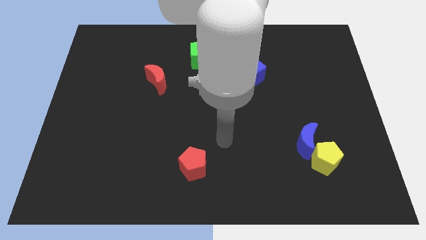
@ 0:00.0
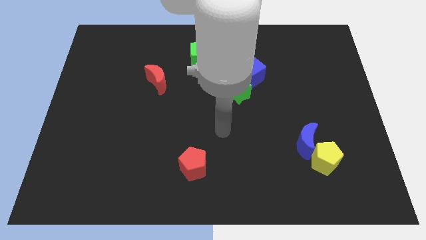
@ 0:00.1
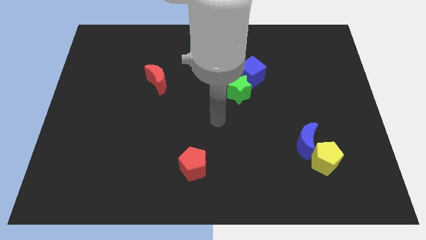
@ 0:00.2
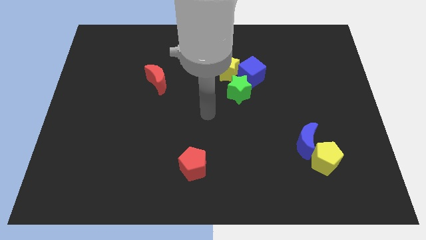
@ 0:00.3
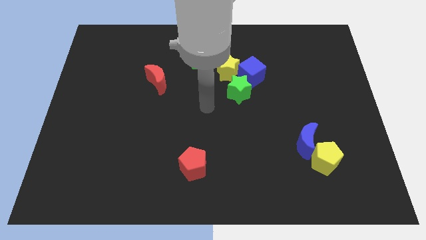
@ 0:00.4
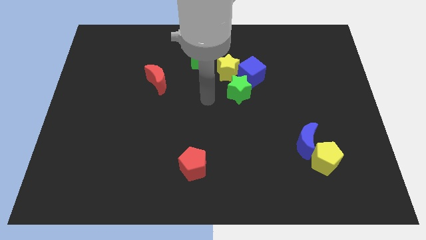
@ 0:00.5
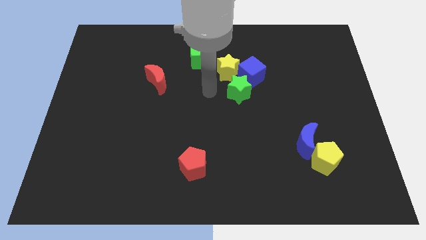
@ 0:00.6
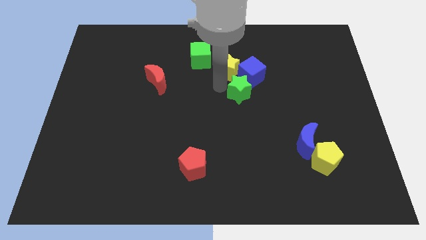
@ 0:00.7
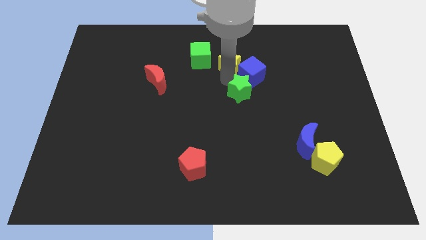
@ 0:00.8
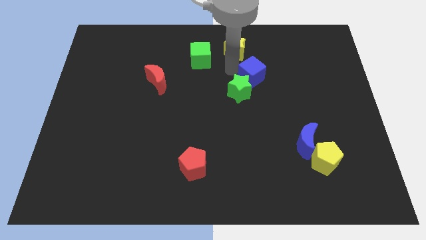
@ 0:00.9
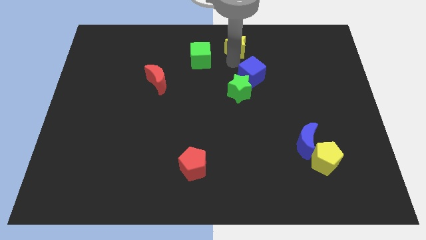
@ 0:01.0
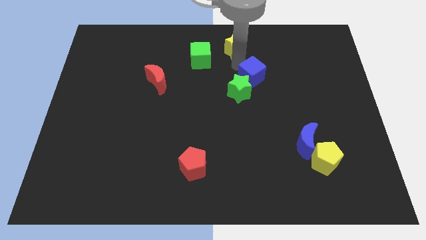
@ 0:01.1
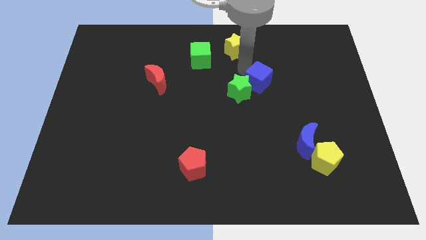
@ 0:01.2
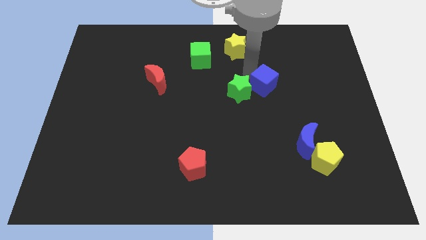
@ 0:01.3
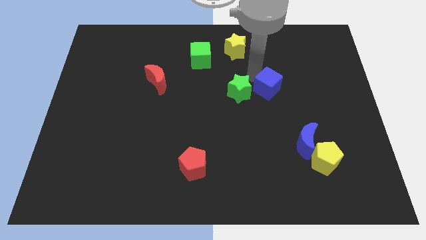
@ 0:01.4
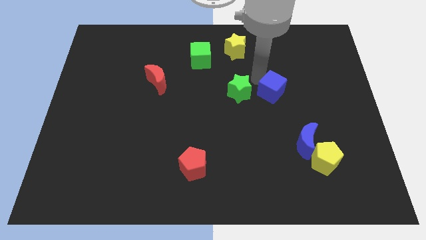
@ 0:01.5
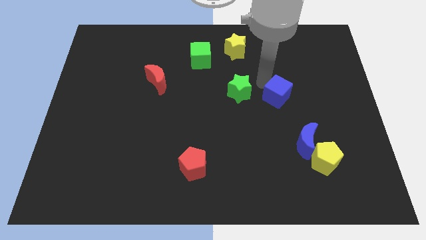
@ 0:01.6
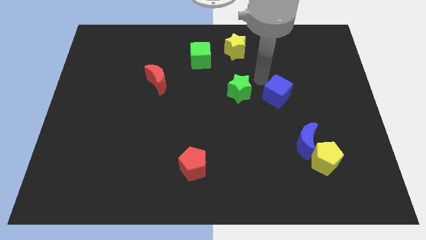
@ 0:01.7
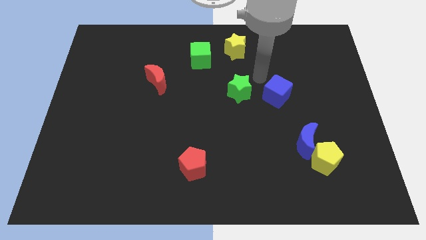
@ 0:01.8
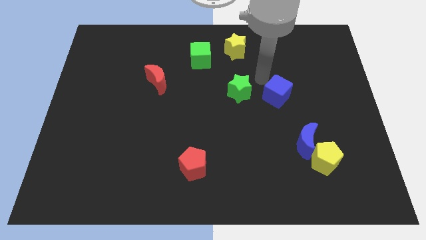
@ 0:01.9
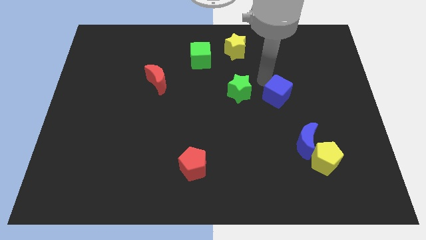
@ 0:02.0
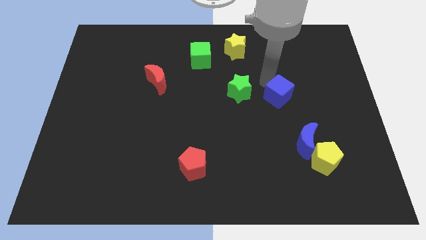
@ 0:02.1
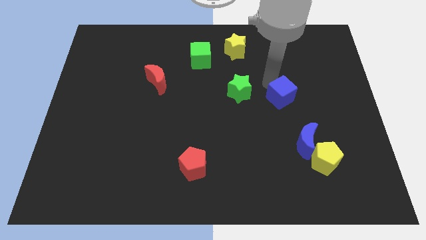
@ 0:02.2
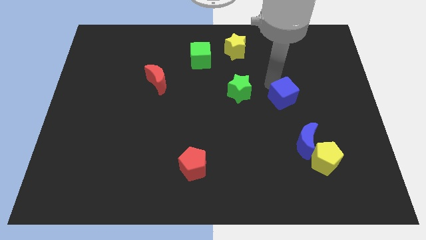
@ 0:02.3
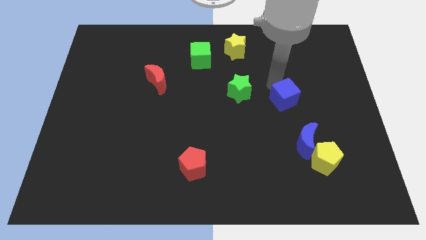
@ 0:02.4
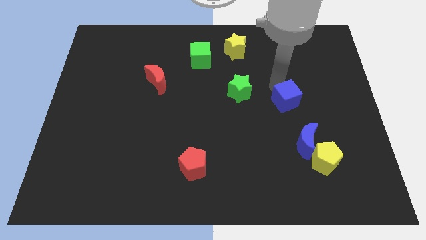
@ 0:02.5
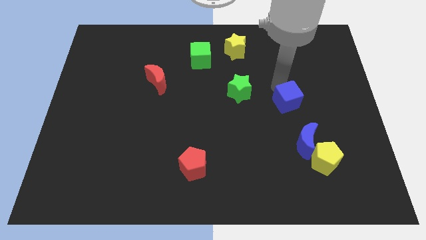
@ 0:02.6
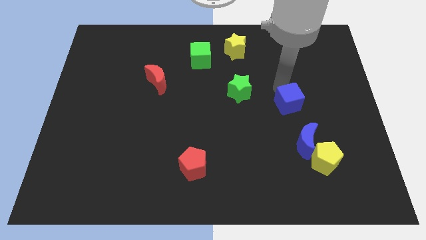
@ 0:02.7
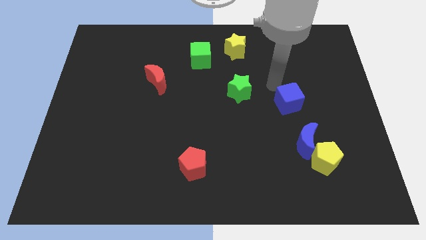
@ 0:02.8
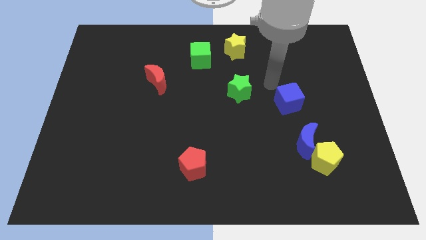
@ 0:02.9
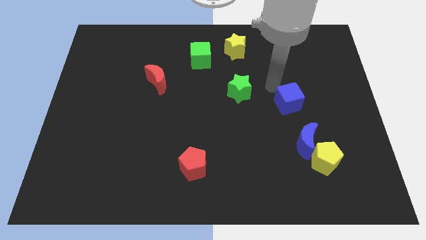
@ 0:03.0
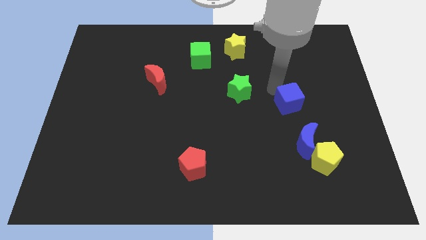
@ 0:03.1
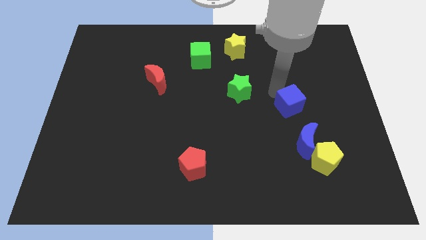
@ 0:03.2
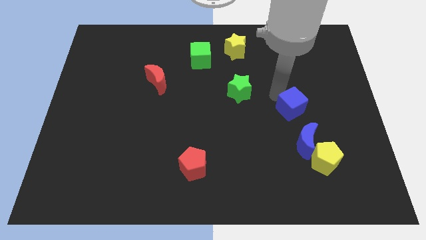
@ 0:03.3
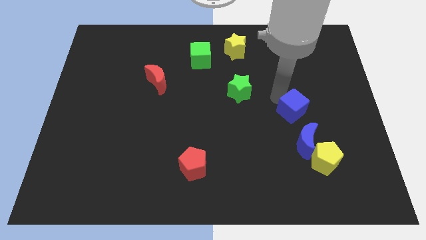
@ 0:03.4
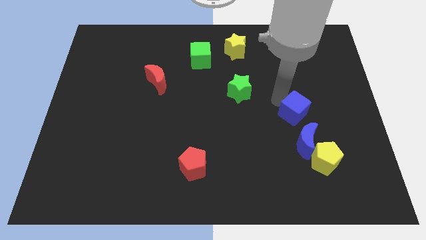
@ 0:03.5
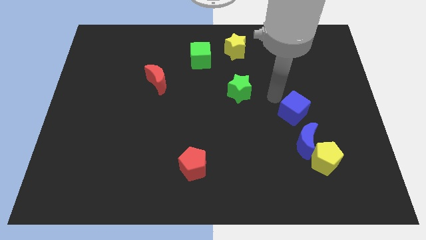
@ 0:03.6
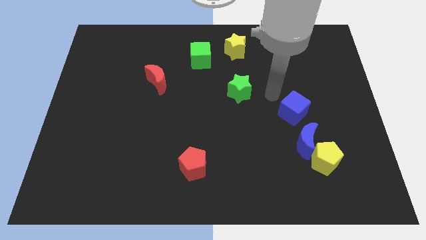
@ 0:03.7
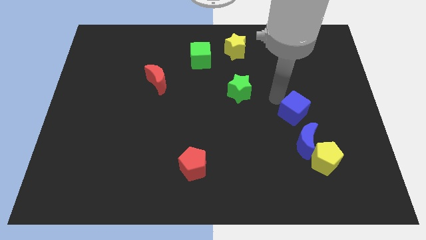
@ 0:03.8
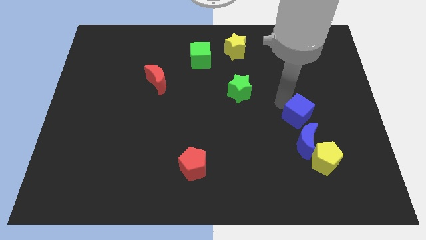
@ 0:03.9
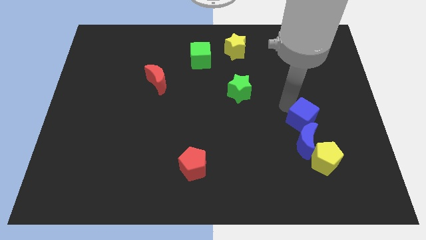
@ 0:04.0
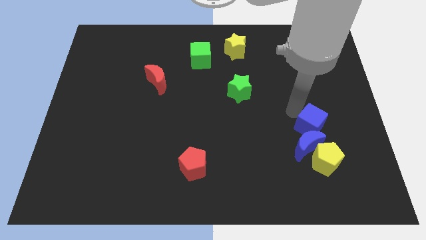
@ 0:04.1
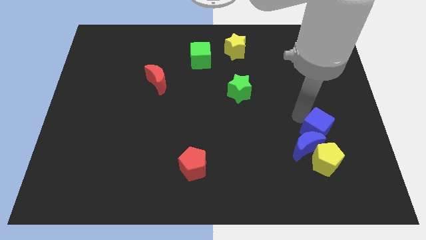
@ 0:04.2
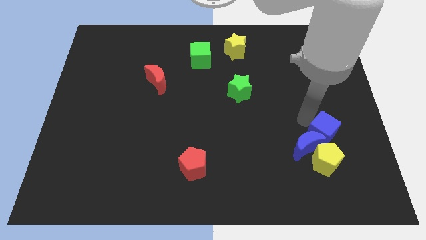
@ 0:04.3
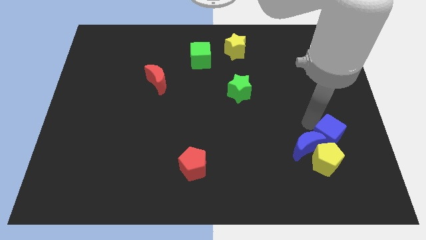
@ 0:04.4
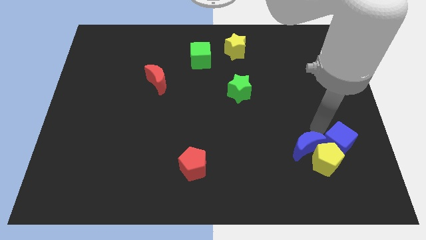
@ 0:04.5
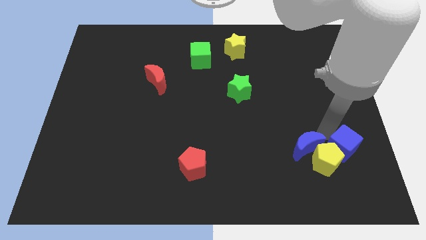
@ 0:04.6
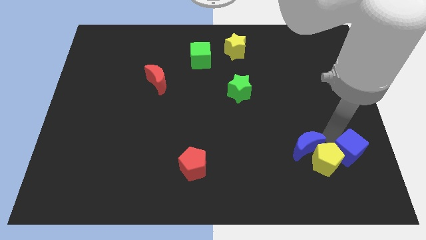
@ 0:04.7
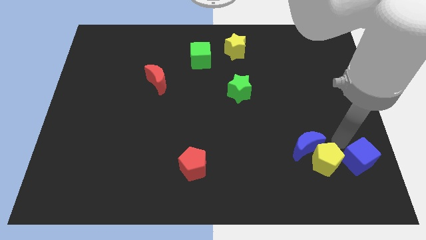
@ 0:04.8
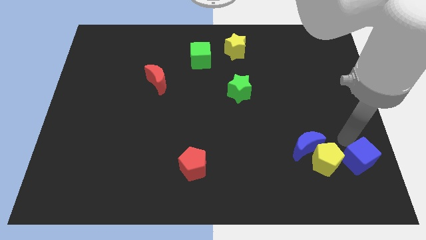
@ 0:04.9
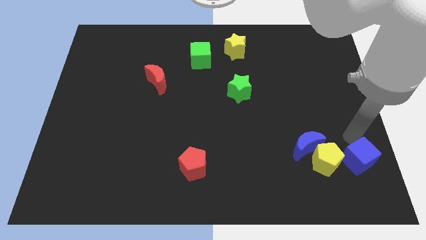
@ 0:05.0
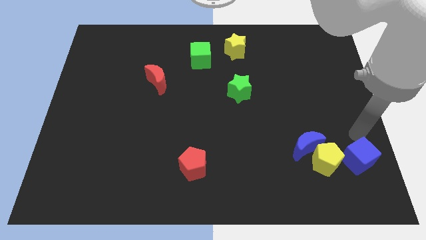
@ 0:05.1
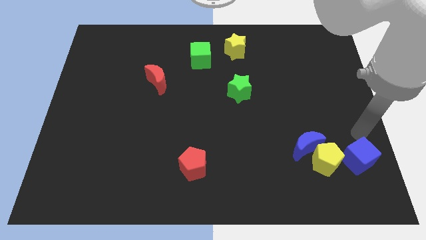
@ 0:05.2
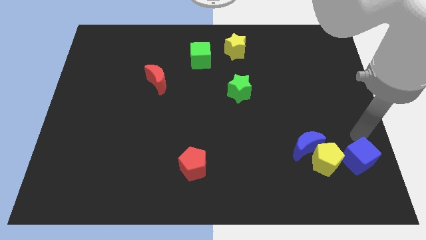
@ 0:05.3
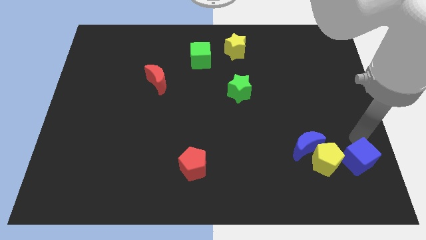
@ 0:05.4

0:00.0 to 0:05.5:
push the blue cube to the bottom right of the yellow pentagon
